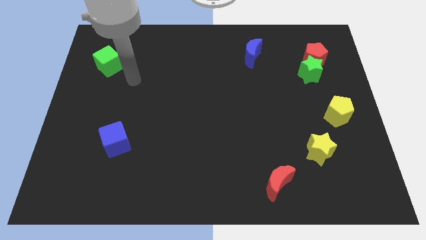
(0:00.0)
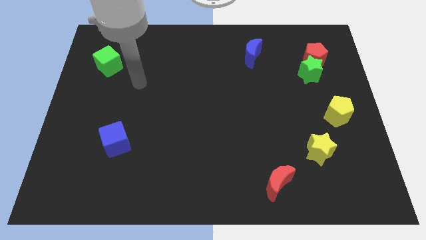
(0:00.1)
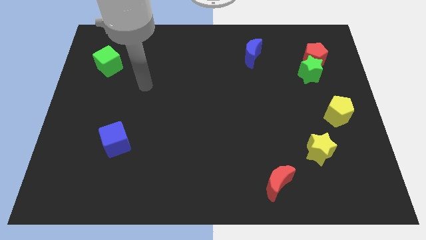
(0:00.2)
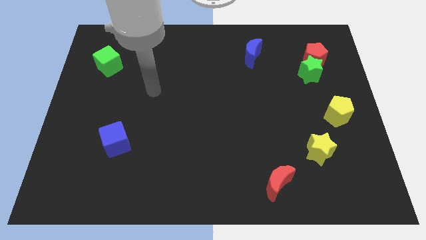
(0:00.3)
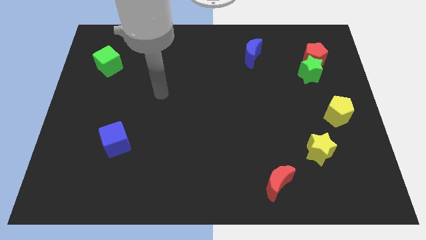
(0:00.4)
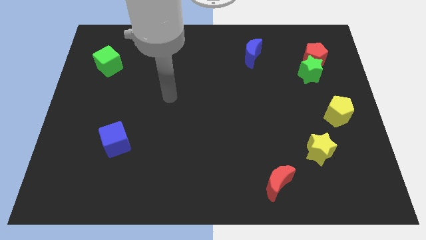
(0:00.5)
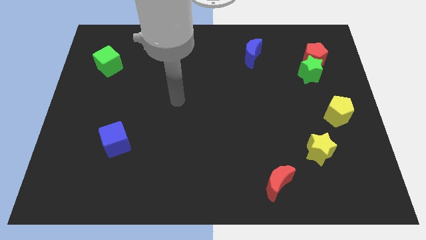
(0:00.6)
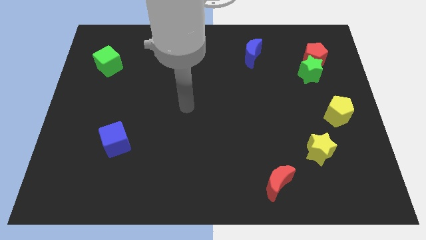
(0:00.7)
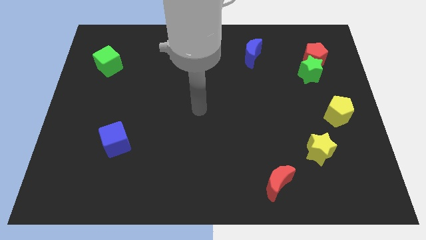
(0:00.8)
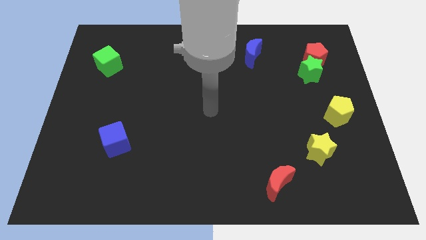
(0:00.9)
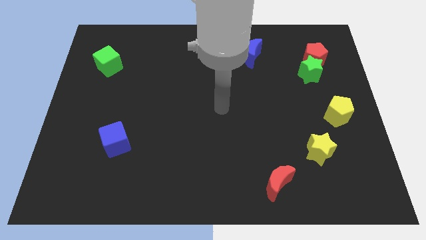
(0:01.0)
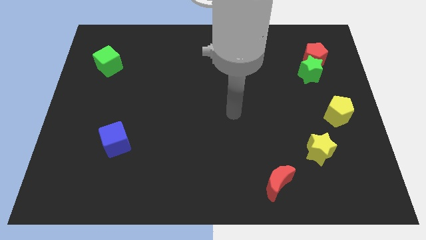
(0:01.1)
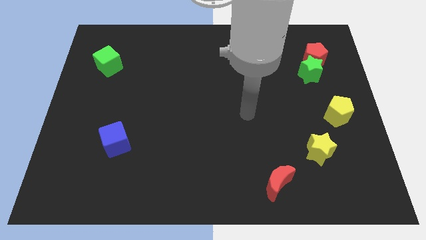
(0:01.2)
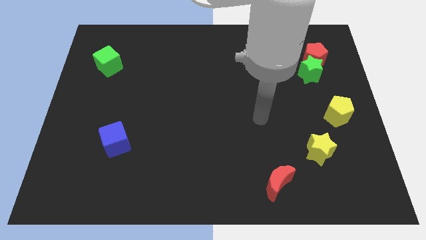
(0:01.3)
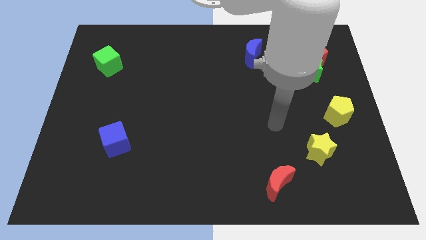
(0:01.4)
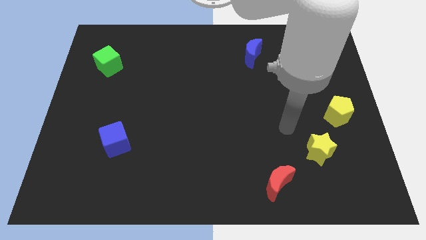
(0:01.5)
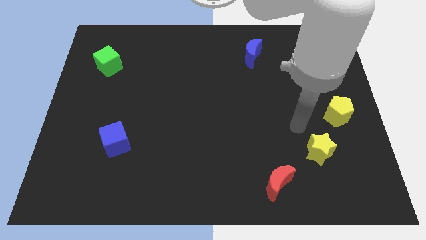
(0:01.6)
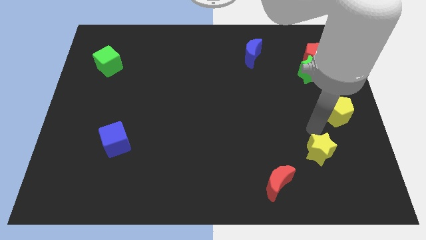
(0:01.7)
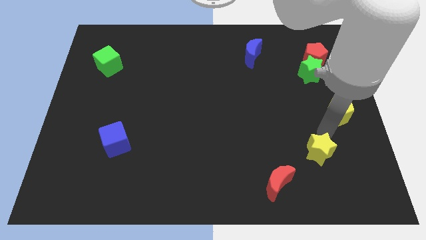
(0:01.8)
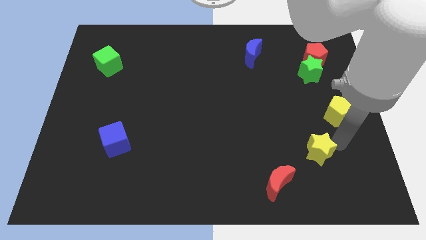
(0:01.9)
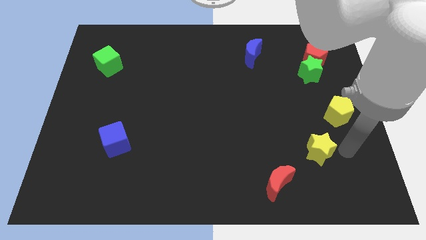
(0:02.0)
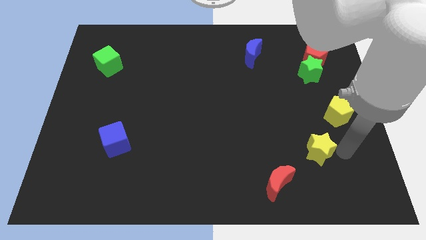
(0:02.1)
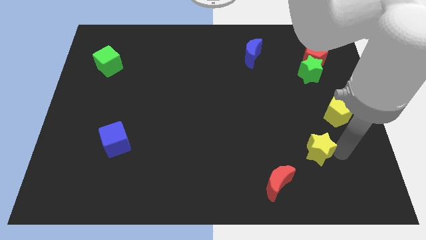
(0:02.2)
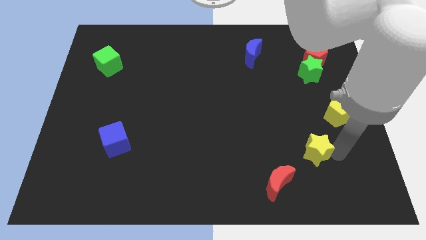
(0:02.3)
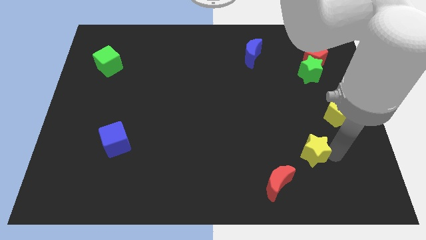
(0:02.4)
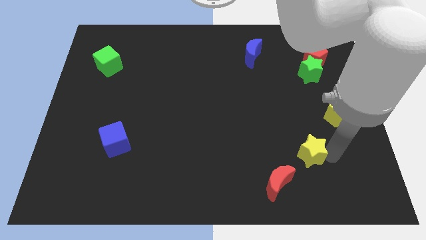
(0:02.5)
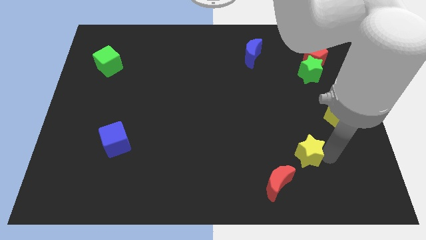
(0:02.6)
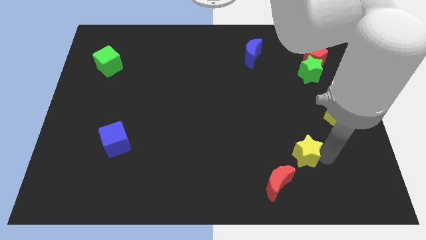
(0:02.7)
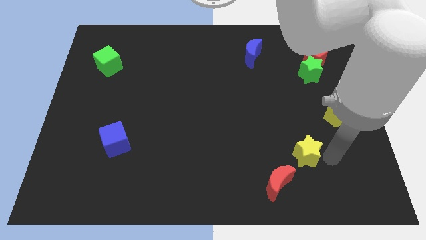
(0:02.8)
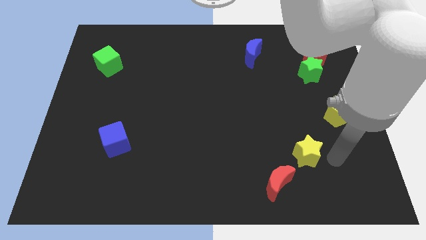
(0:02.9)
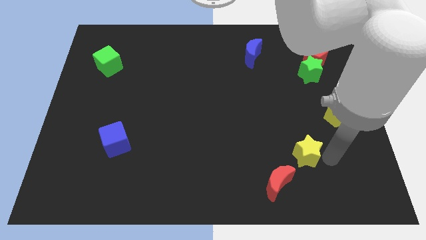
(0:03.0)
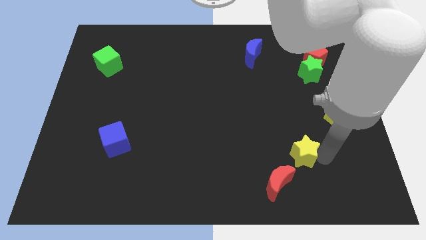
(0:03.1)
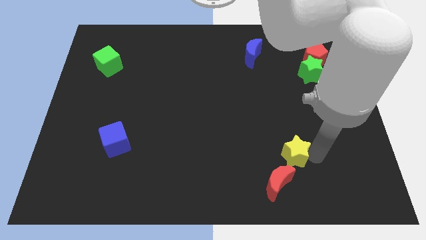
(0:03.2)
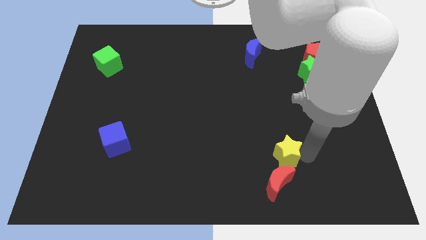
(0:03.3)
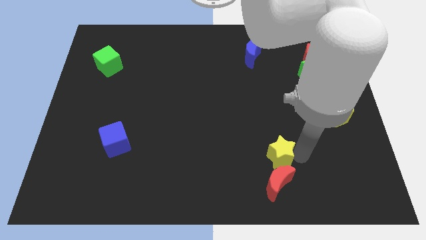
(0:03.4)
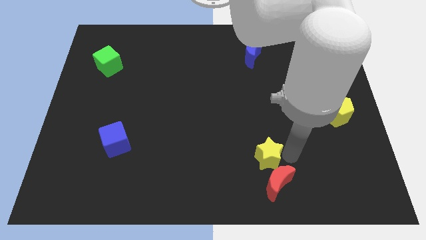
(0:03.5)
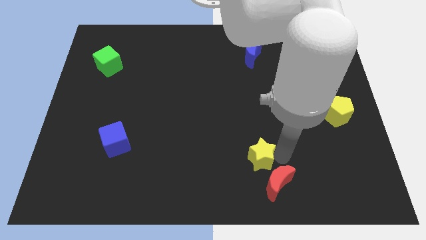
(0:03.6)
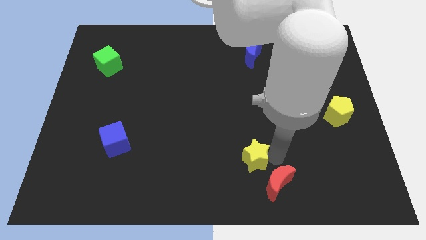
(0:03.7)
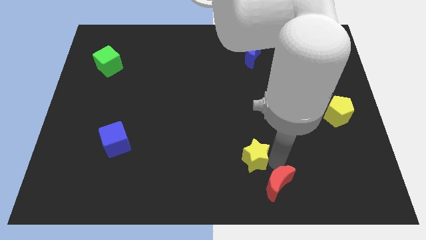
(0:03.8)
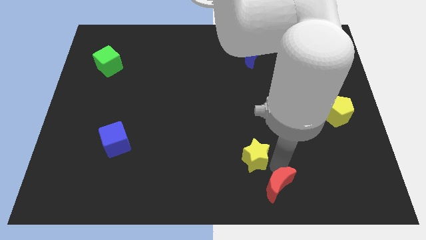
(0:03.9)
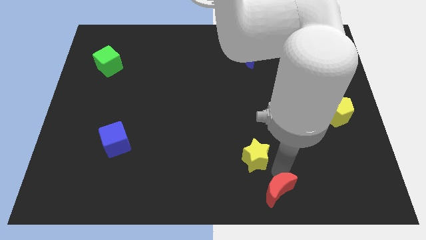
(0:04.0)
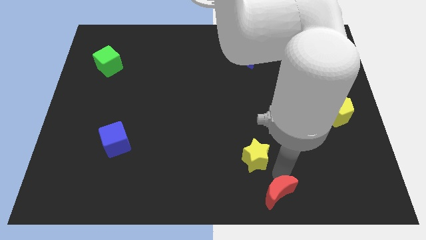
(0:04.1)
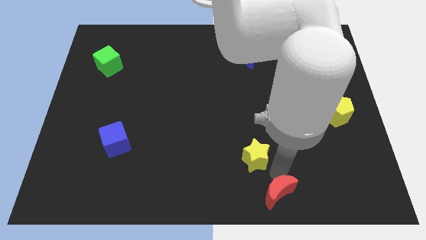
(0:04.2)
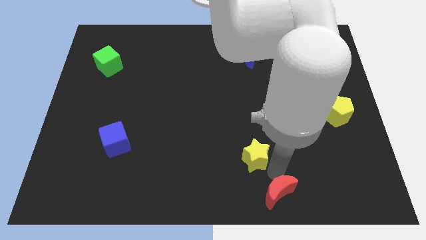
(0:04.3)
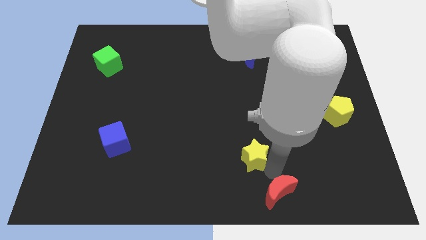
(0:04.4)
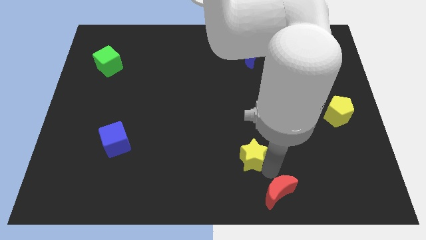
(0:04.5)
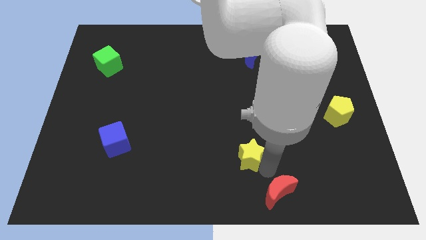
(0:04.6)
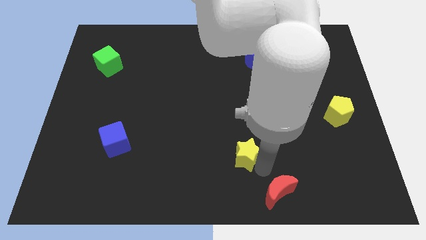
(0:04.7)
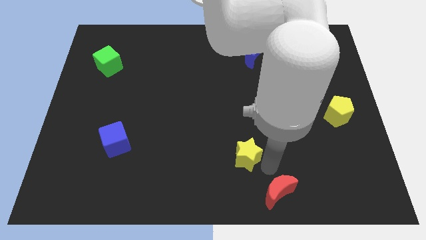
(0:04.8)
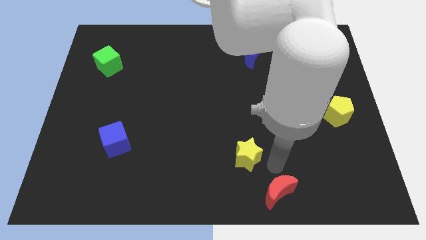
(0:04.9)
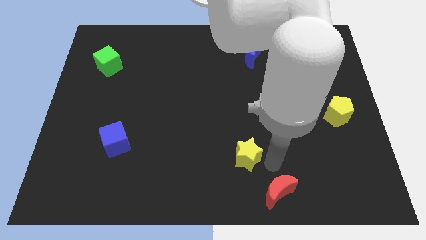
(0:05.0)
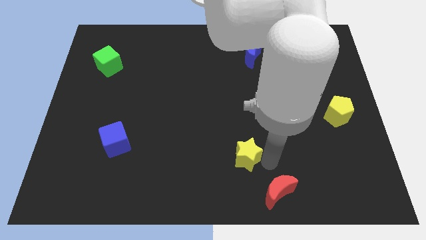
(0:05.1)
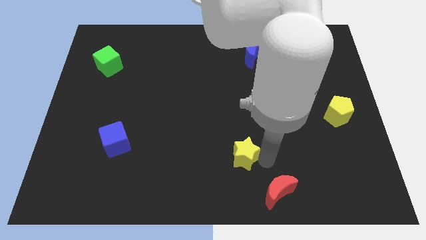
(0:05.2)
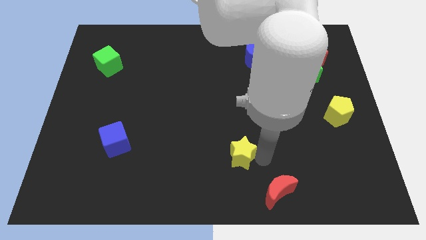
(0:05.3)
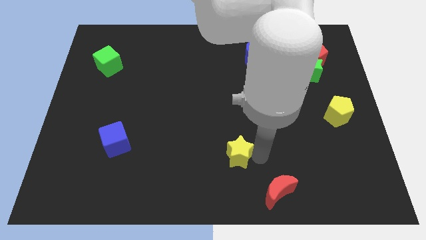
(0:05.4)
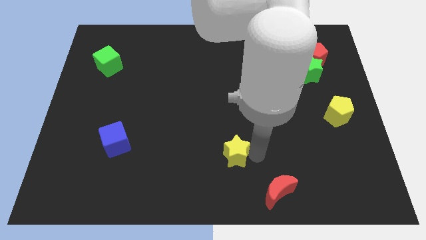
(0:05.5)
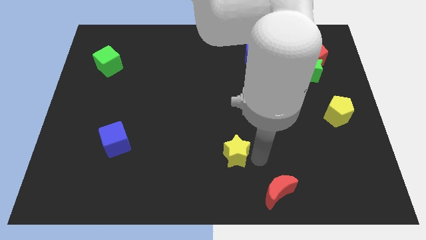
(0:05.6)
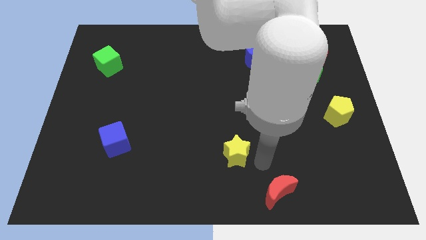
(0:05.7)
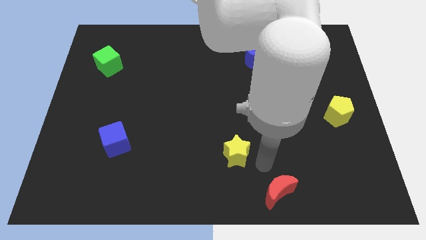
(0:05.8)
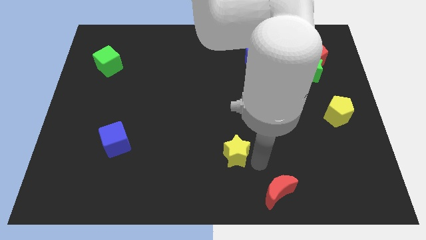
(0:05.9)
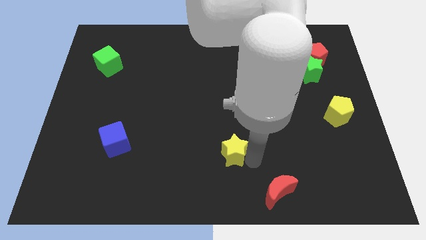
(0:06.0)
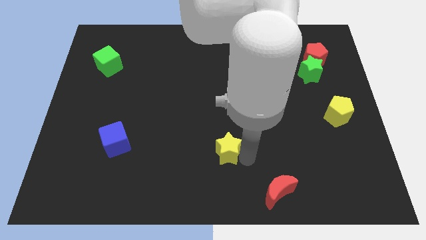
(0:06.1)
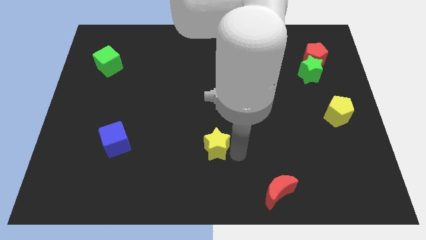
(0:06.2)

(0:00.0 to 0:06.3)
slide the yellow star left

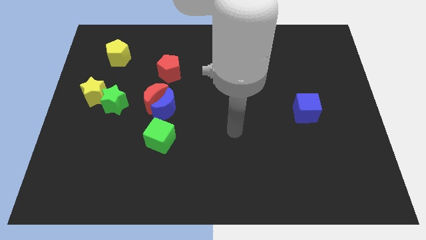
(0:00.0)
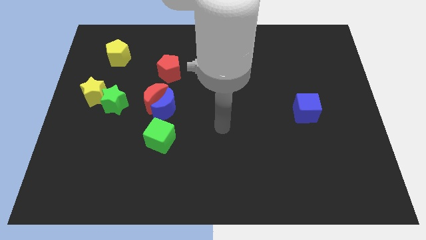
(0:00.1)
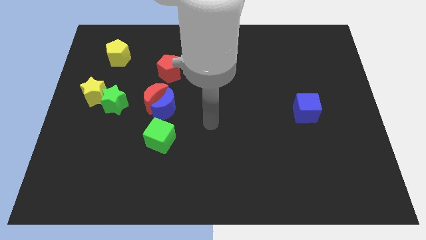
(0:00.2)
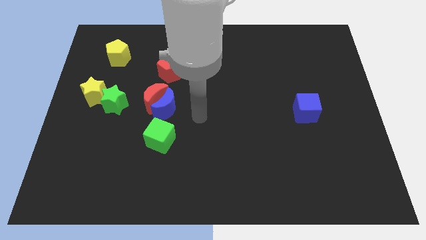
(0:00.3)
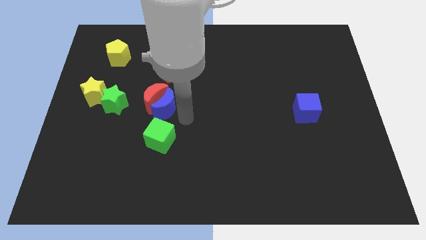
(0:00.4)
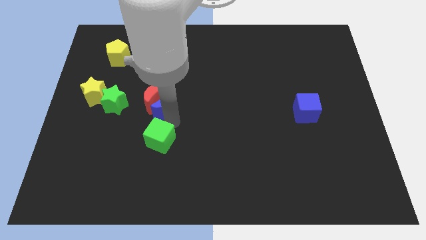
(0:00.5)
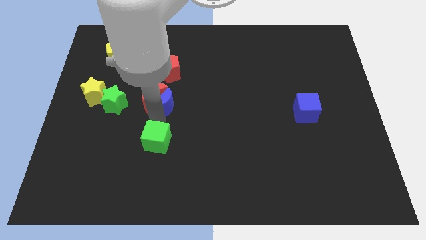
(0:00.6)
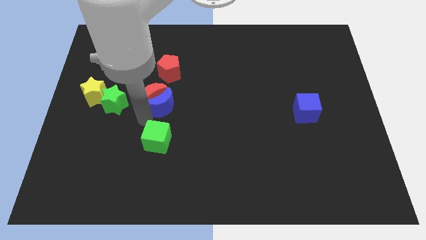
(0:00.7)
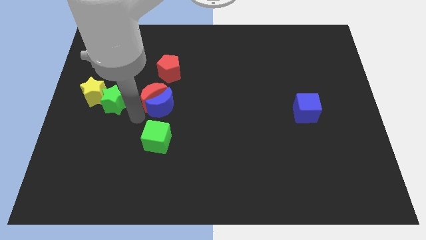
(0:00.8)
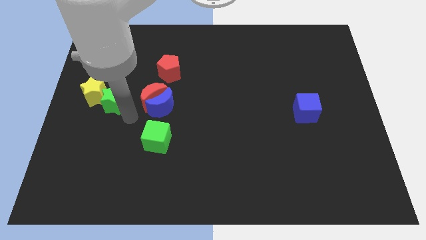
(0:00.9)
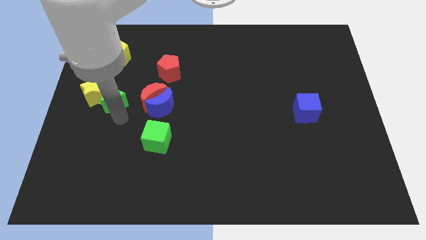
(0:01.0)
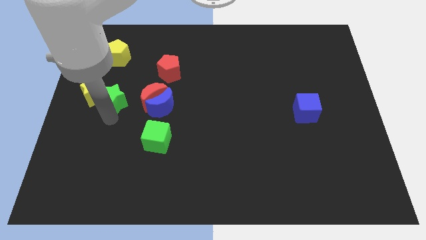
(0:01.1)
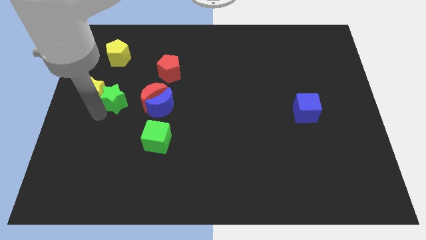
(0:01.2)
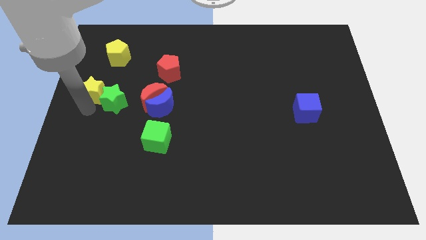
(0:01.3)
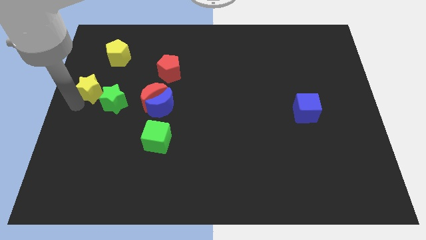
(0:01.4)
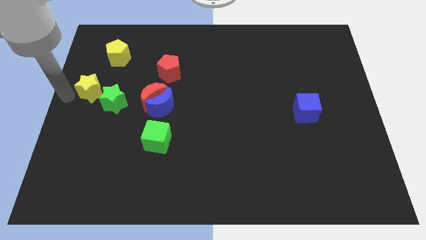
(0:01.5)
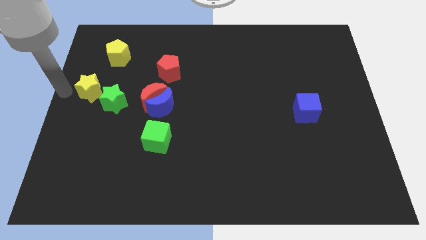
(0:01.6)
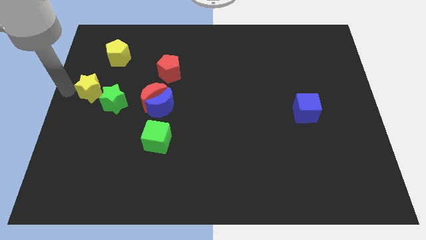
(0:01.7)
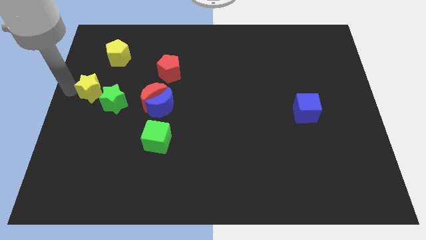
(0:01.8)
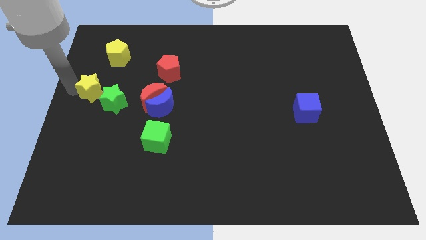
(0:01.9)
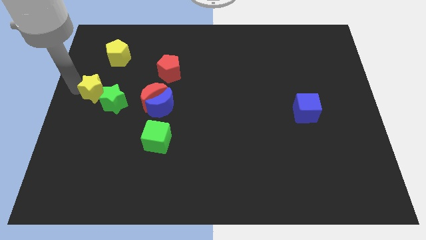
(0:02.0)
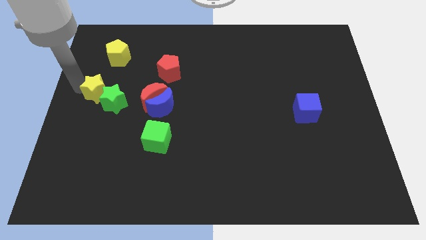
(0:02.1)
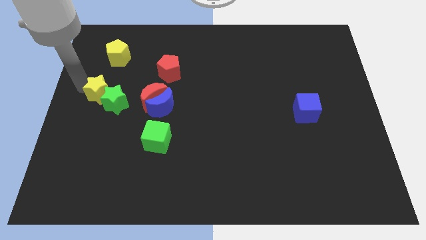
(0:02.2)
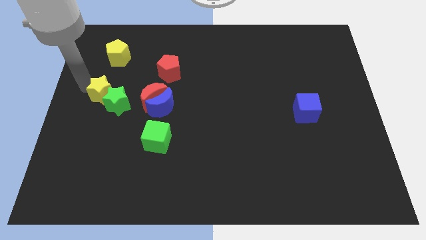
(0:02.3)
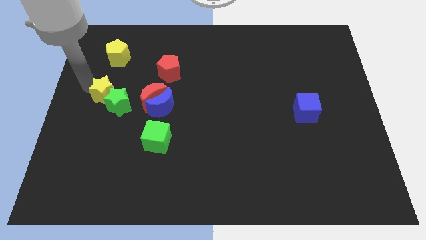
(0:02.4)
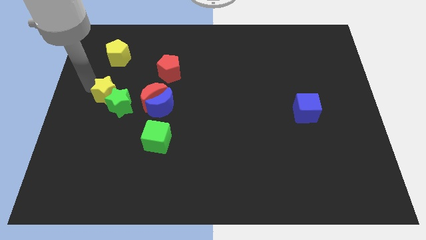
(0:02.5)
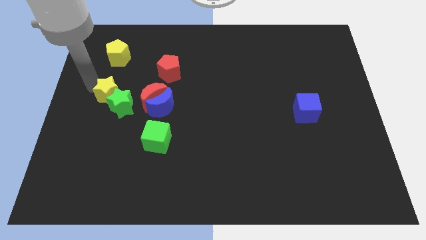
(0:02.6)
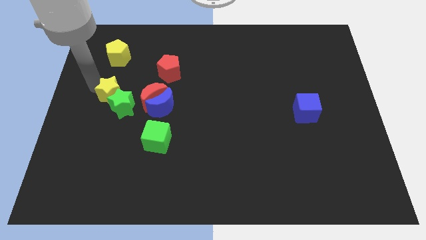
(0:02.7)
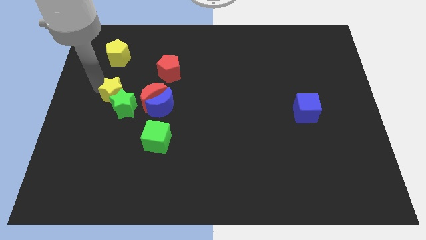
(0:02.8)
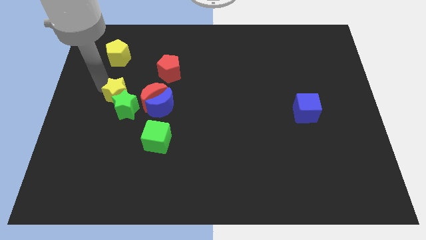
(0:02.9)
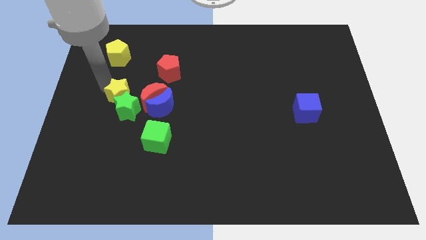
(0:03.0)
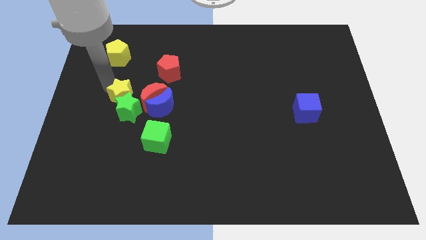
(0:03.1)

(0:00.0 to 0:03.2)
push the yellow star a bit right
